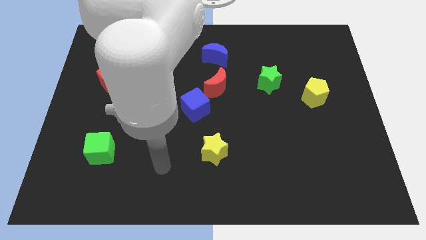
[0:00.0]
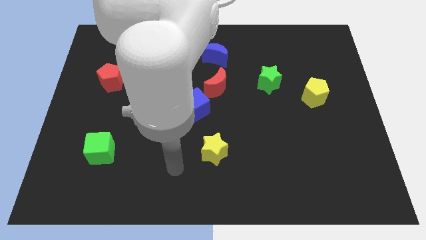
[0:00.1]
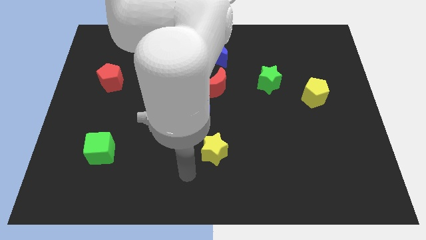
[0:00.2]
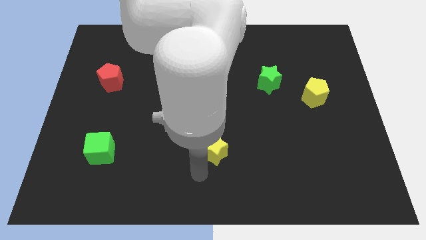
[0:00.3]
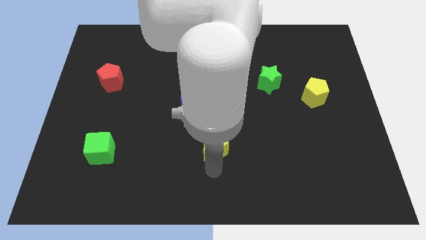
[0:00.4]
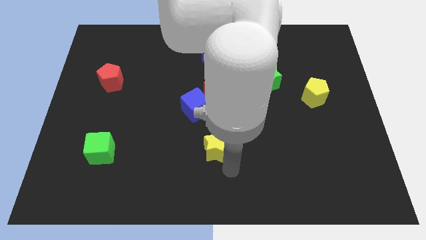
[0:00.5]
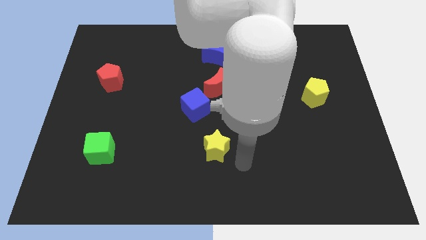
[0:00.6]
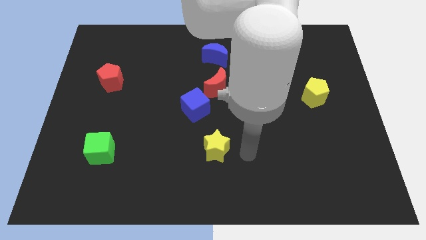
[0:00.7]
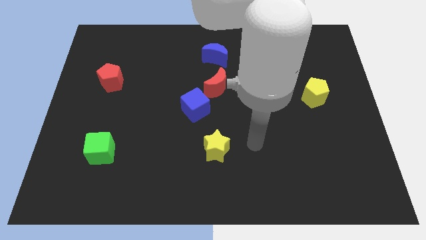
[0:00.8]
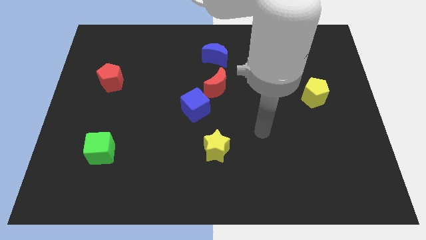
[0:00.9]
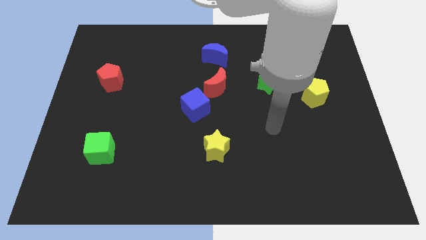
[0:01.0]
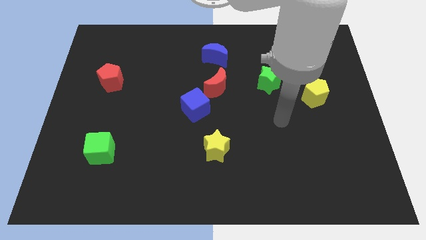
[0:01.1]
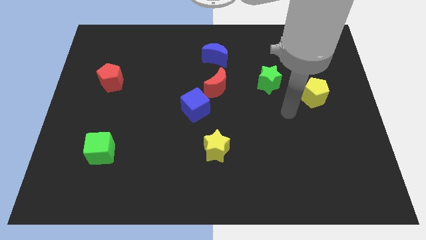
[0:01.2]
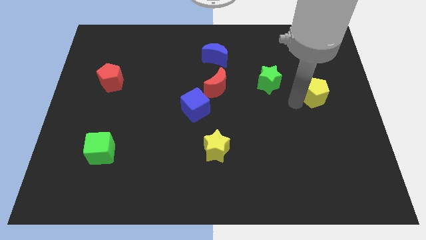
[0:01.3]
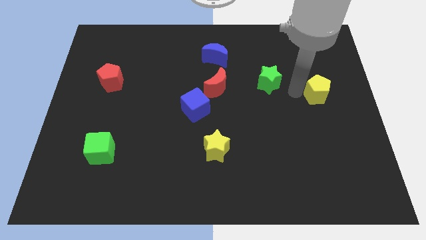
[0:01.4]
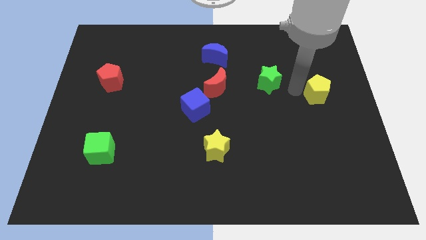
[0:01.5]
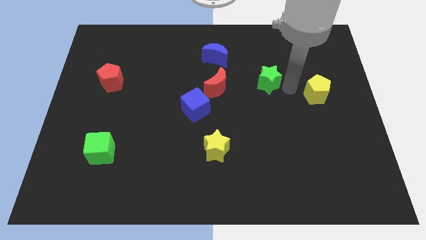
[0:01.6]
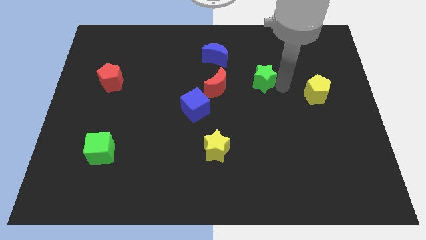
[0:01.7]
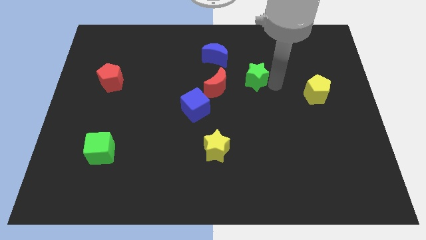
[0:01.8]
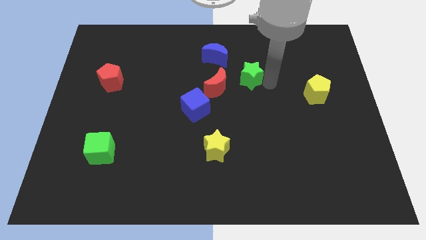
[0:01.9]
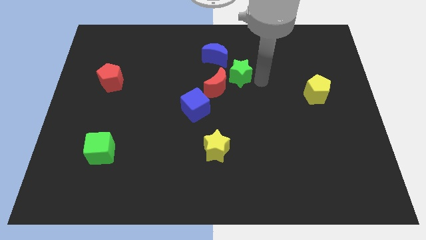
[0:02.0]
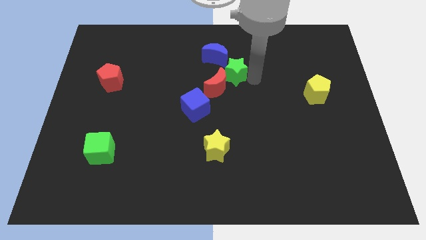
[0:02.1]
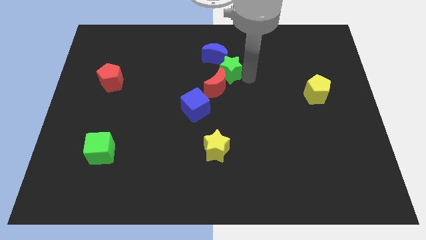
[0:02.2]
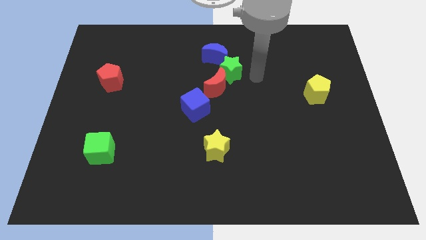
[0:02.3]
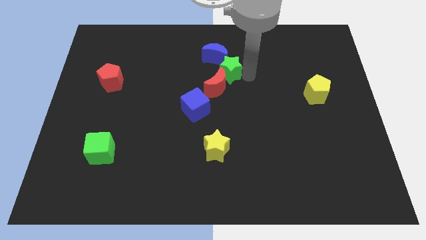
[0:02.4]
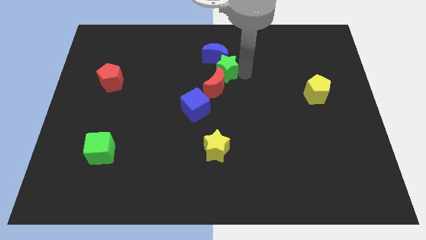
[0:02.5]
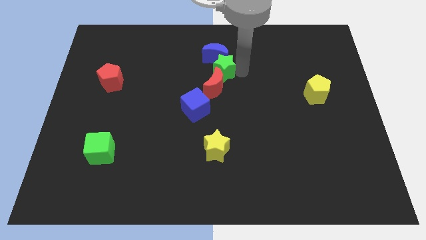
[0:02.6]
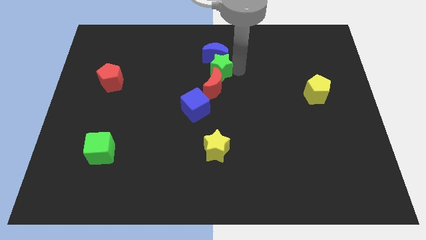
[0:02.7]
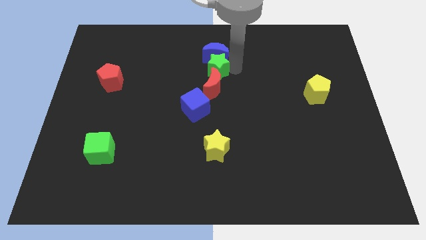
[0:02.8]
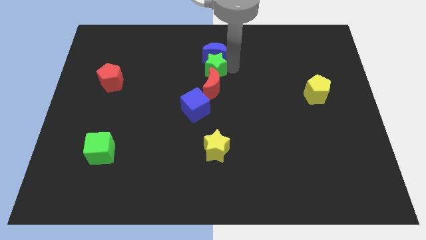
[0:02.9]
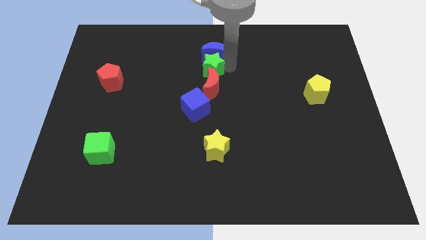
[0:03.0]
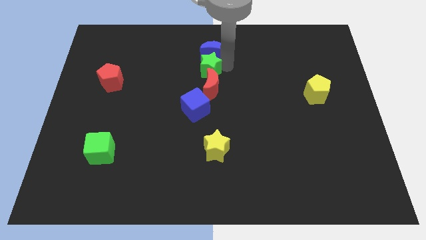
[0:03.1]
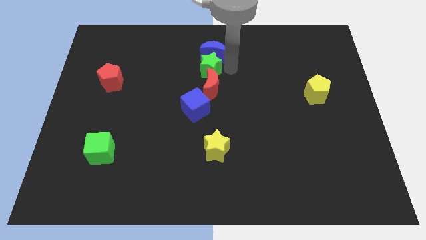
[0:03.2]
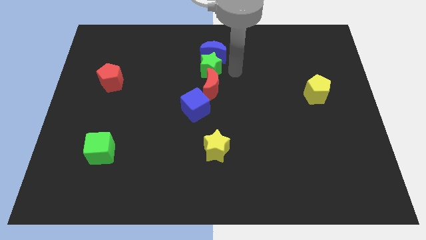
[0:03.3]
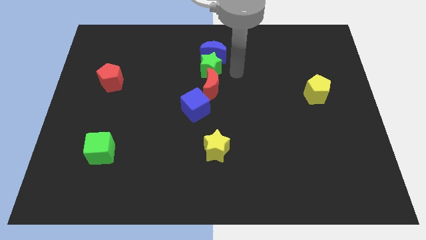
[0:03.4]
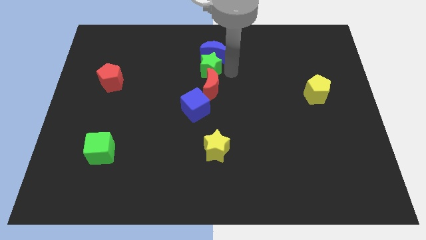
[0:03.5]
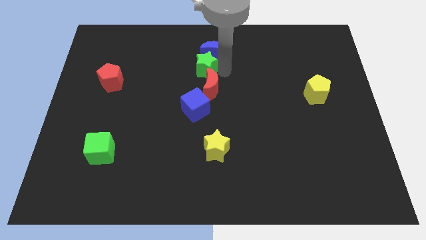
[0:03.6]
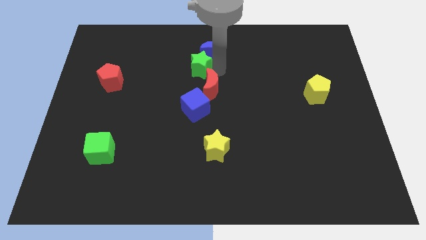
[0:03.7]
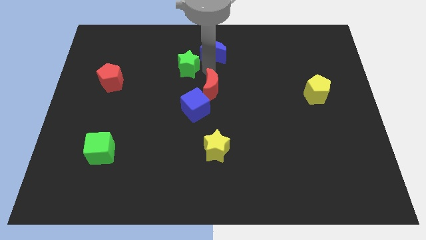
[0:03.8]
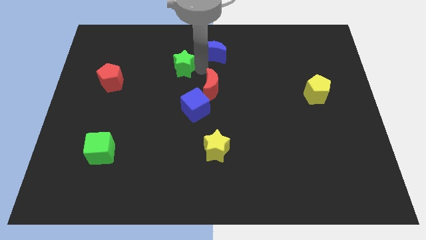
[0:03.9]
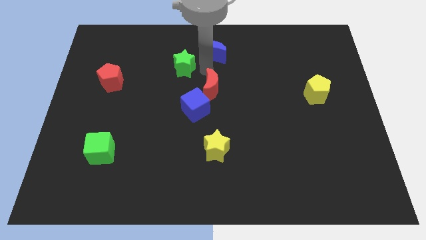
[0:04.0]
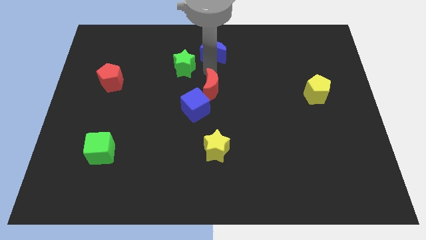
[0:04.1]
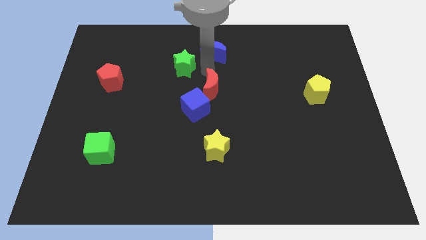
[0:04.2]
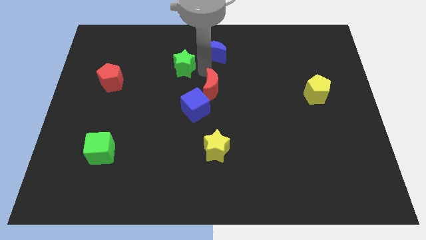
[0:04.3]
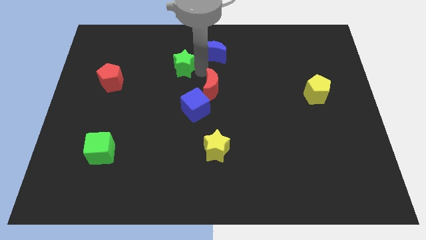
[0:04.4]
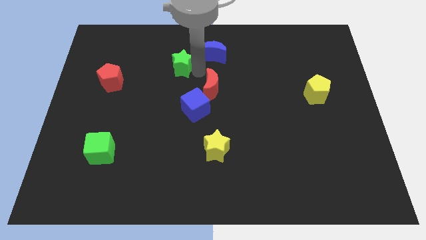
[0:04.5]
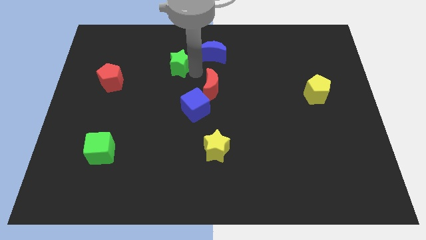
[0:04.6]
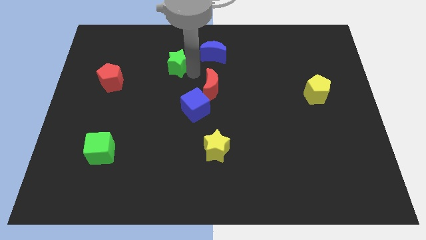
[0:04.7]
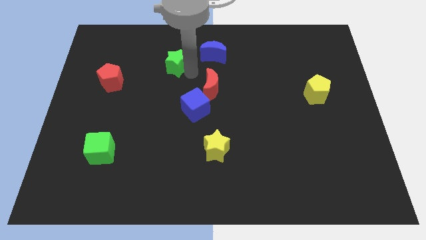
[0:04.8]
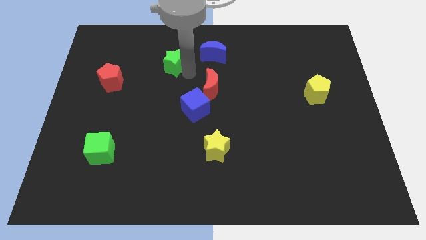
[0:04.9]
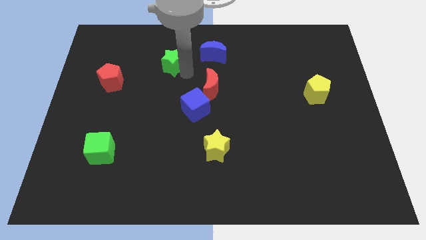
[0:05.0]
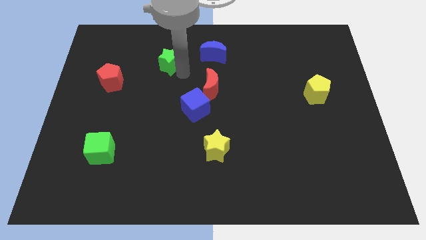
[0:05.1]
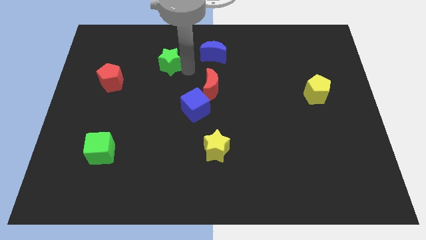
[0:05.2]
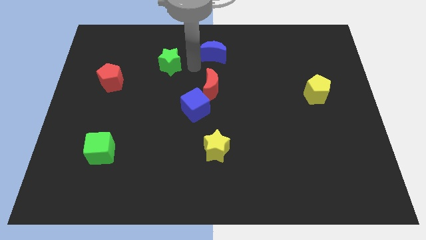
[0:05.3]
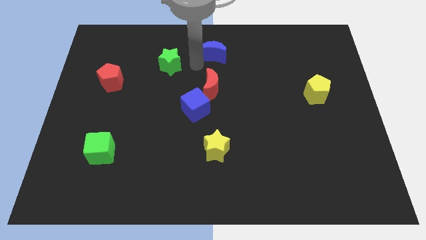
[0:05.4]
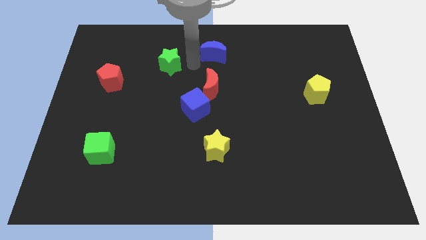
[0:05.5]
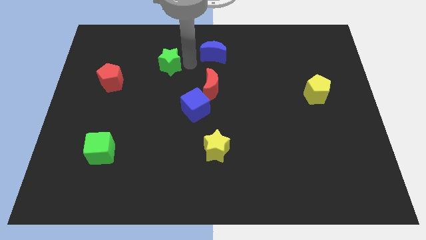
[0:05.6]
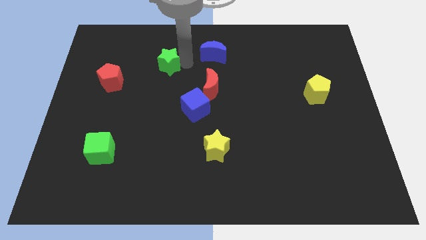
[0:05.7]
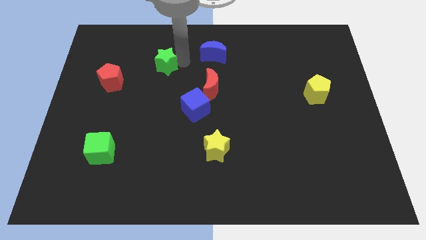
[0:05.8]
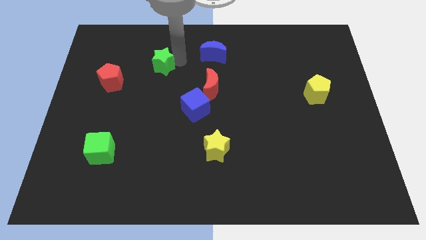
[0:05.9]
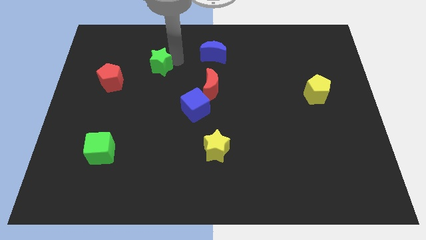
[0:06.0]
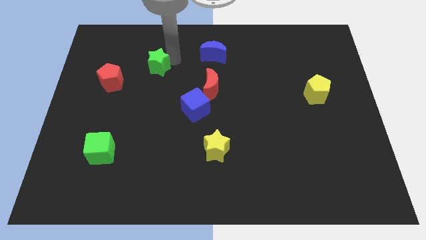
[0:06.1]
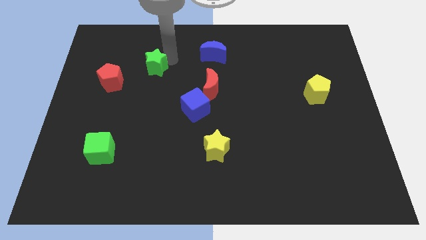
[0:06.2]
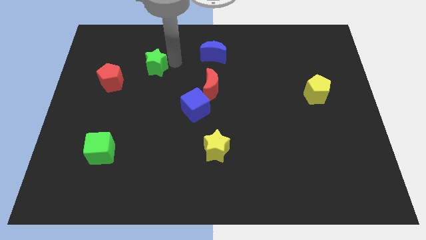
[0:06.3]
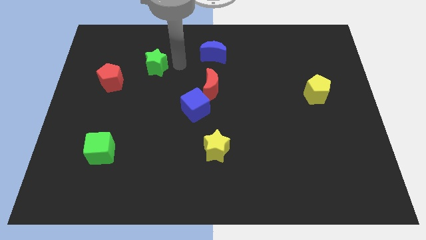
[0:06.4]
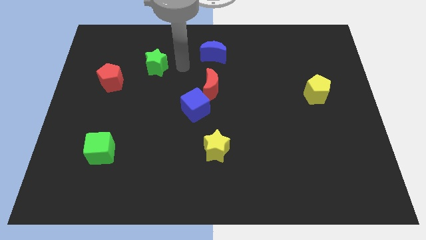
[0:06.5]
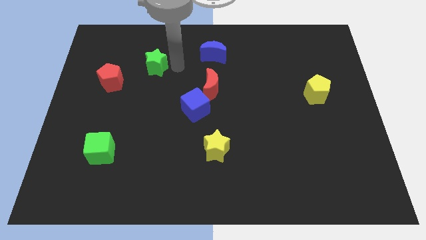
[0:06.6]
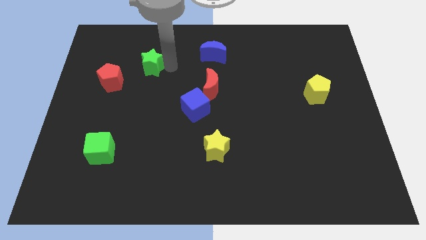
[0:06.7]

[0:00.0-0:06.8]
push the green star to the top right of the red pentagon
